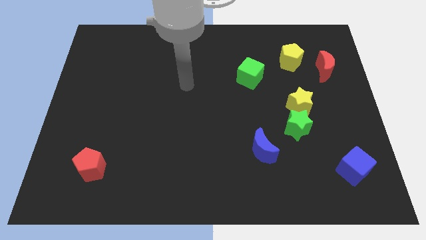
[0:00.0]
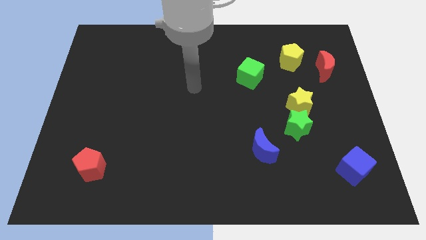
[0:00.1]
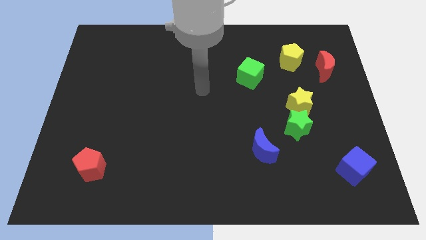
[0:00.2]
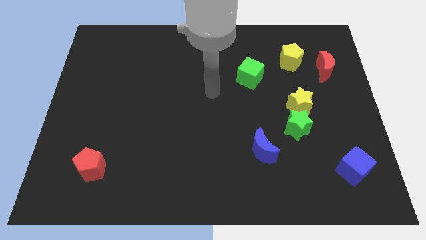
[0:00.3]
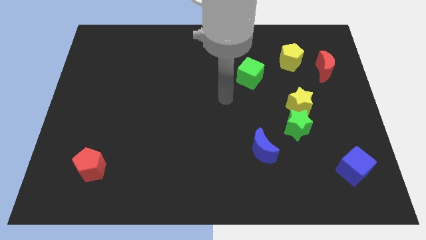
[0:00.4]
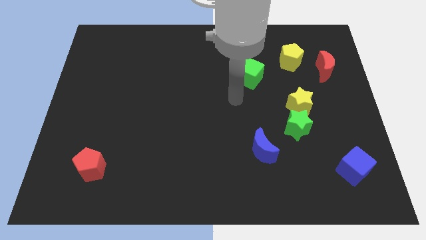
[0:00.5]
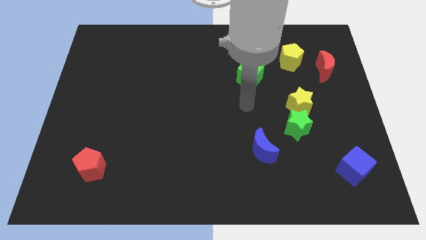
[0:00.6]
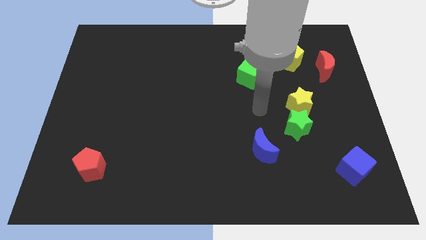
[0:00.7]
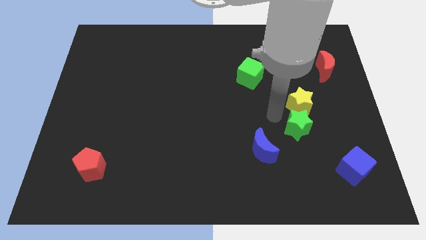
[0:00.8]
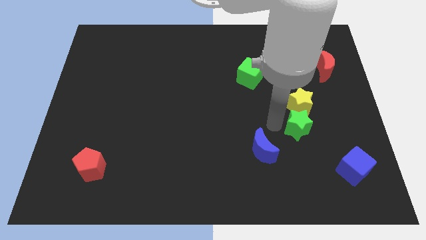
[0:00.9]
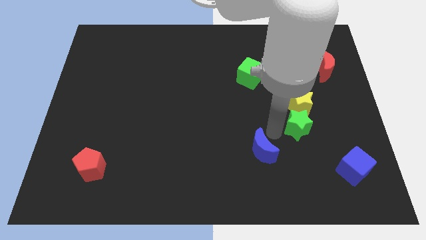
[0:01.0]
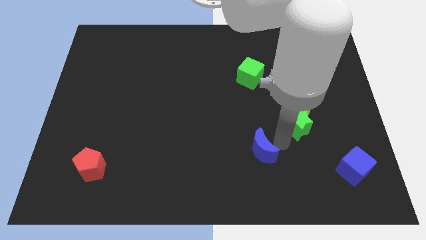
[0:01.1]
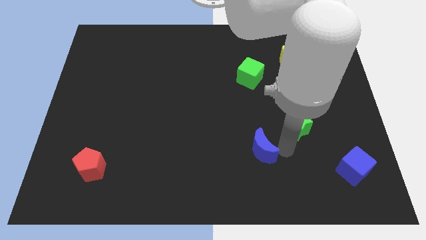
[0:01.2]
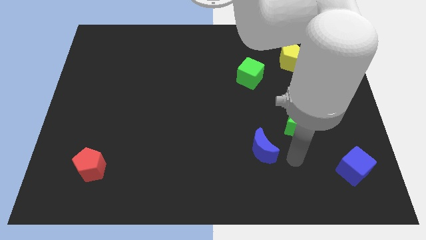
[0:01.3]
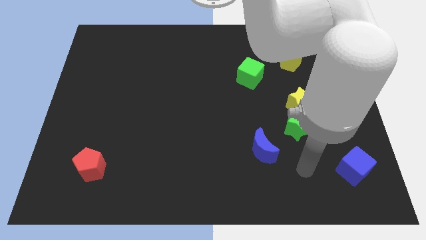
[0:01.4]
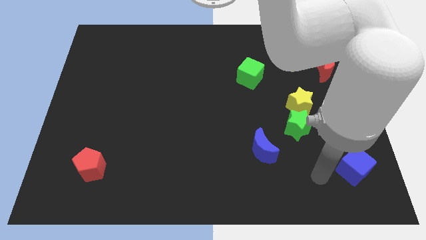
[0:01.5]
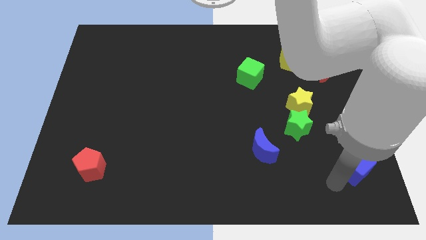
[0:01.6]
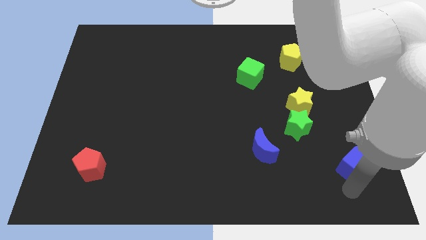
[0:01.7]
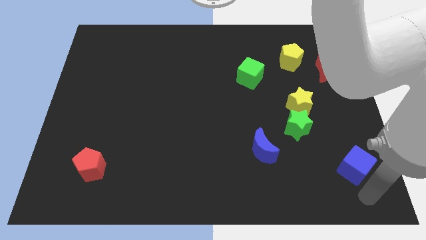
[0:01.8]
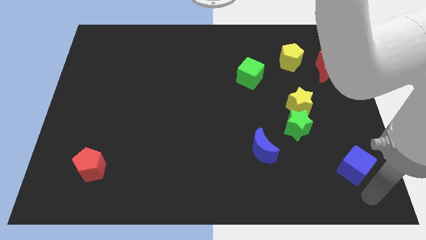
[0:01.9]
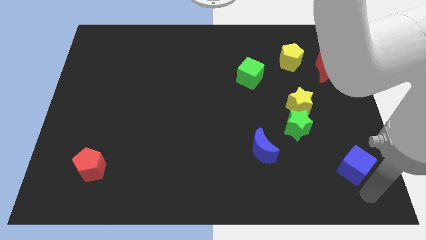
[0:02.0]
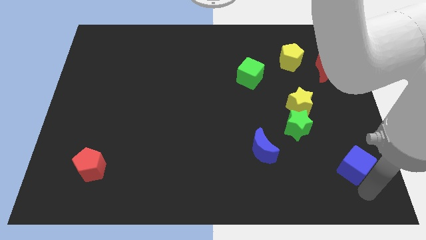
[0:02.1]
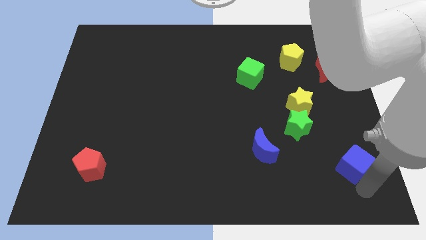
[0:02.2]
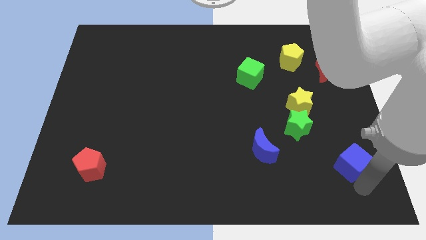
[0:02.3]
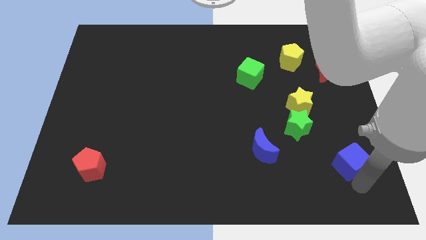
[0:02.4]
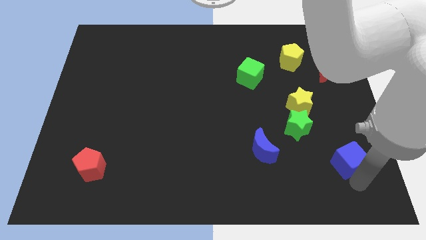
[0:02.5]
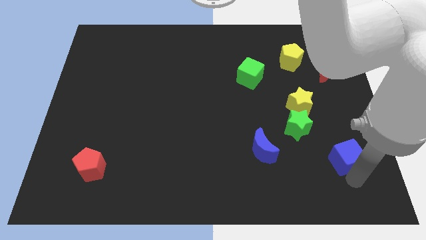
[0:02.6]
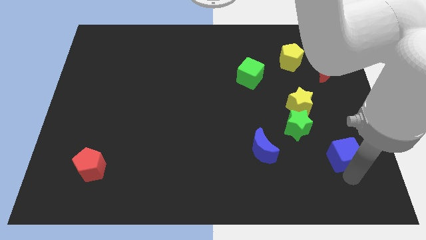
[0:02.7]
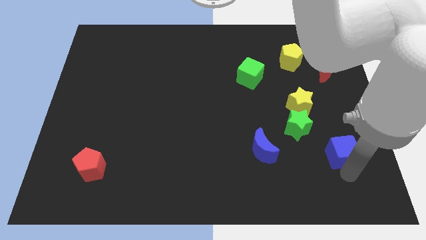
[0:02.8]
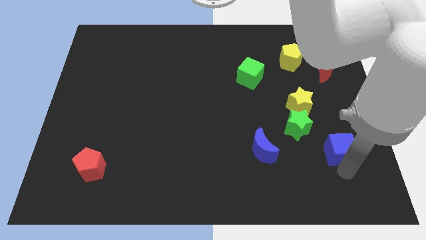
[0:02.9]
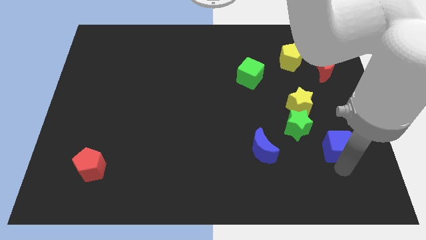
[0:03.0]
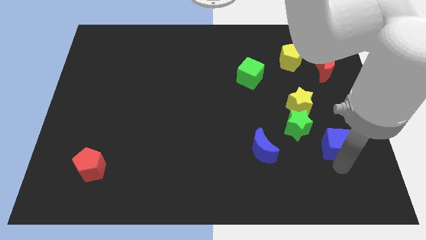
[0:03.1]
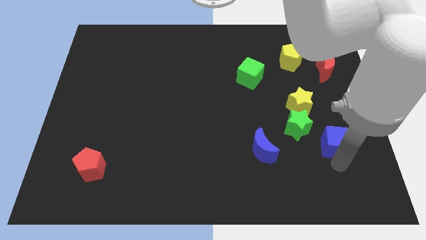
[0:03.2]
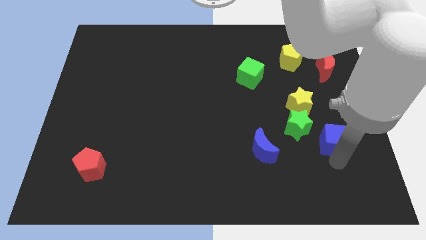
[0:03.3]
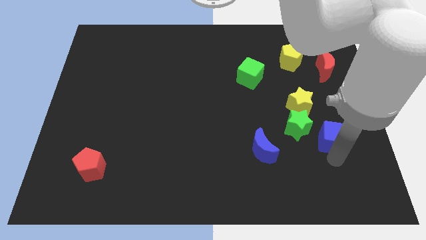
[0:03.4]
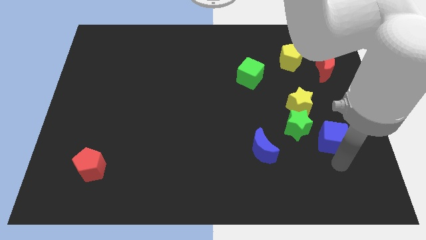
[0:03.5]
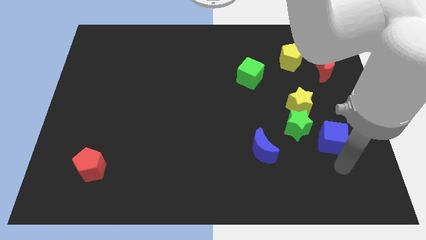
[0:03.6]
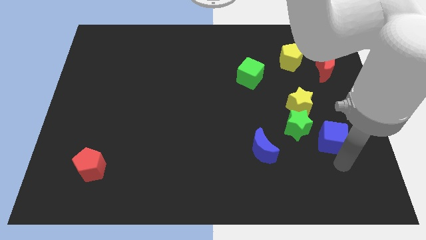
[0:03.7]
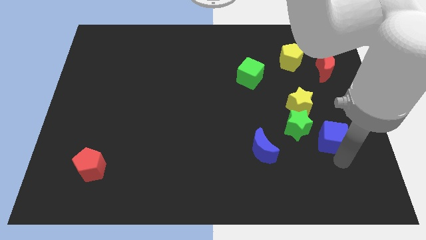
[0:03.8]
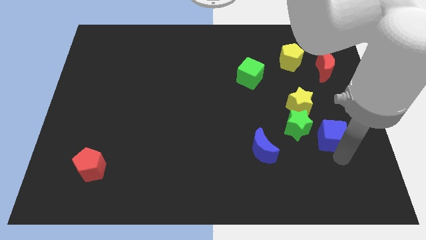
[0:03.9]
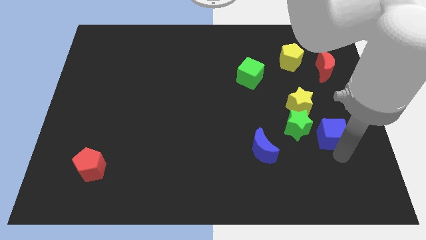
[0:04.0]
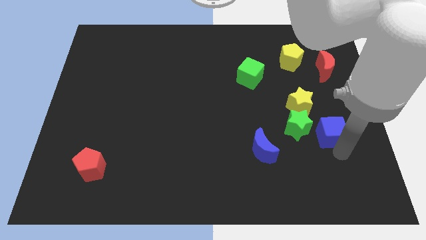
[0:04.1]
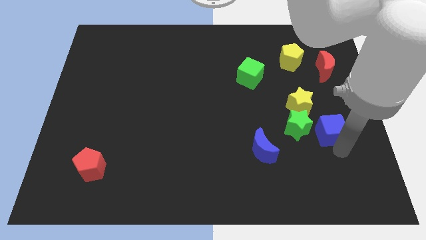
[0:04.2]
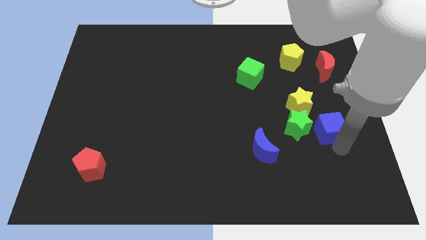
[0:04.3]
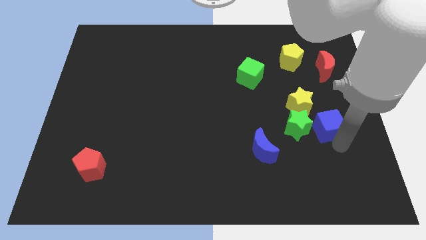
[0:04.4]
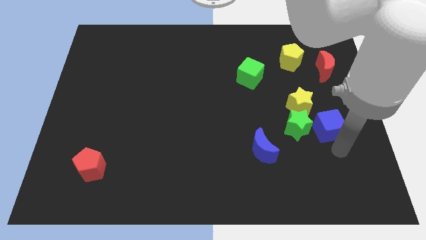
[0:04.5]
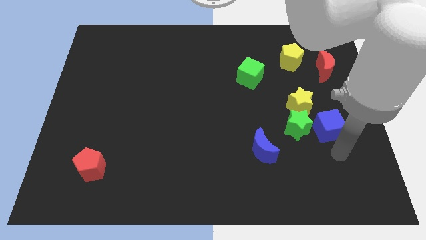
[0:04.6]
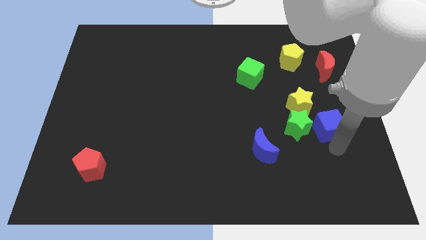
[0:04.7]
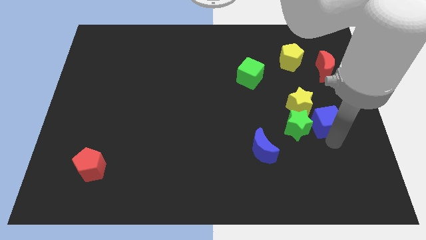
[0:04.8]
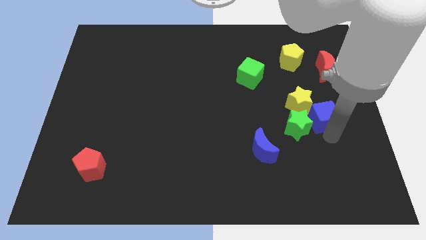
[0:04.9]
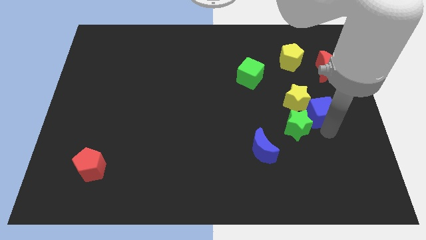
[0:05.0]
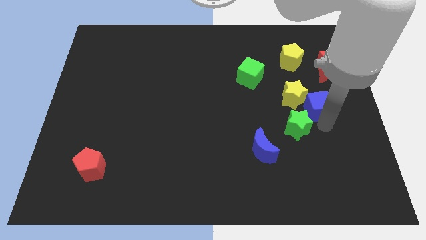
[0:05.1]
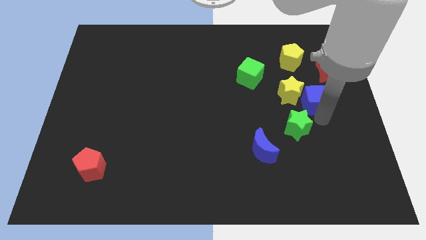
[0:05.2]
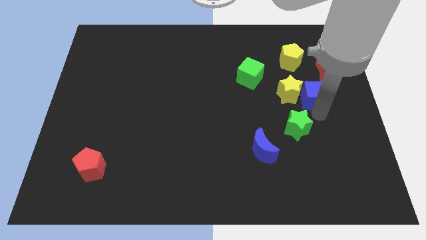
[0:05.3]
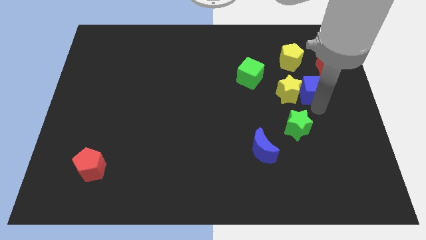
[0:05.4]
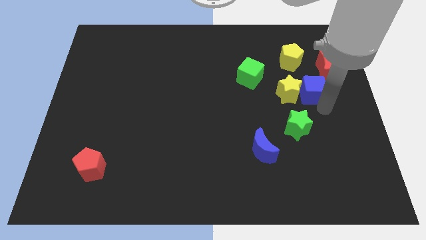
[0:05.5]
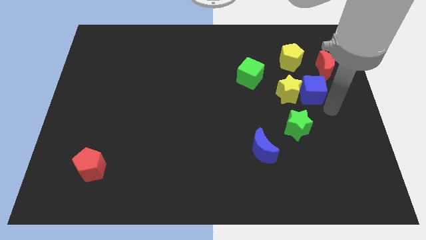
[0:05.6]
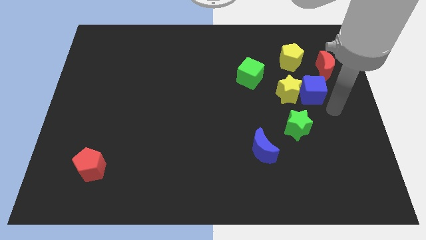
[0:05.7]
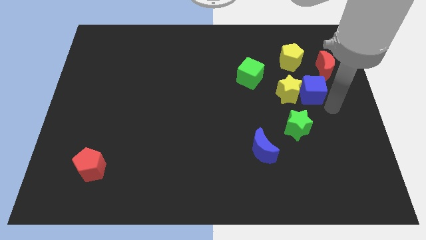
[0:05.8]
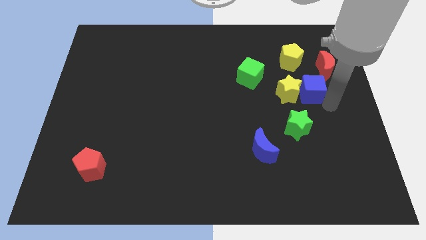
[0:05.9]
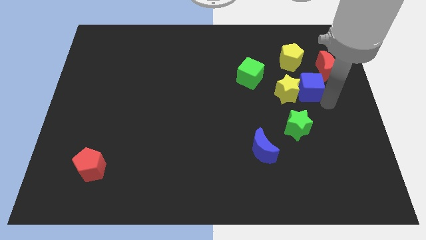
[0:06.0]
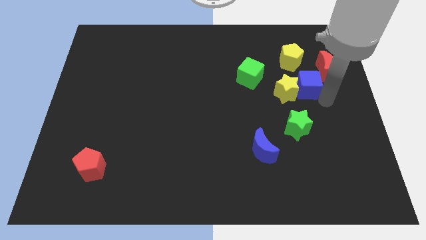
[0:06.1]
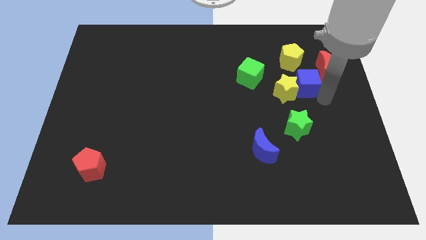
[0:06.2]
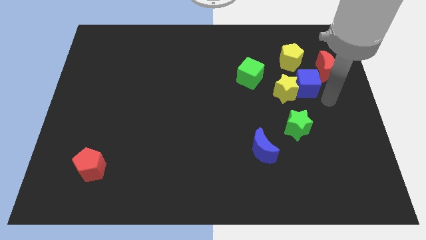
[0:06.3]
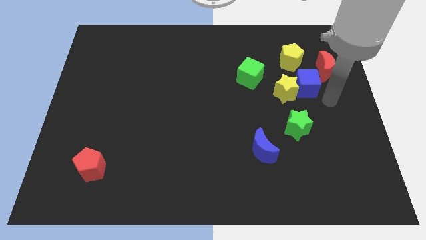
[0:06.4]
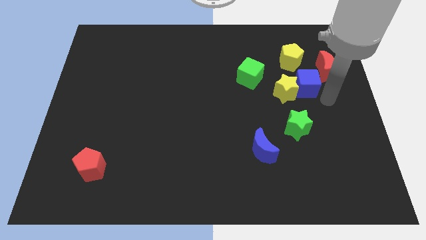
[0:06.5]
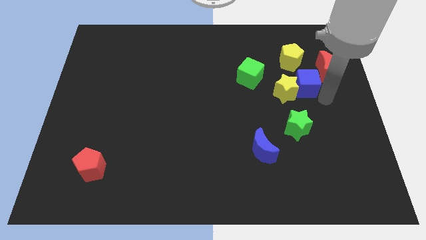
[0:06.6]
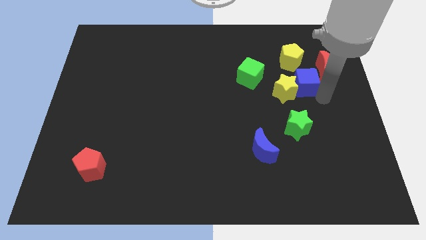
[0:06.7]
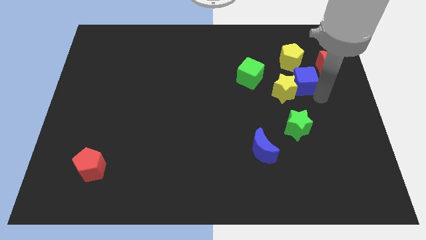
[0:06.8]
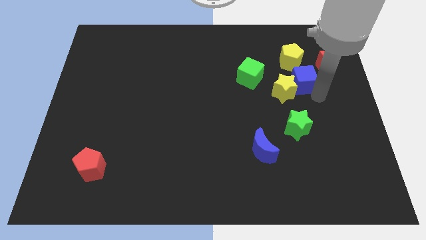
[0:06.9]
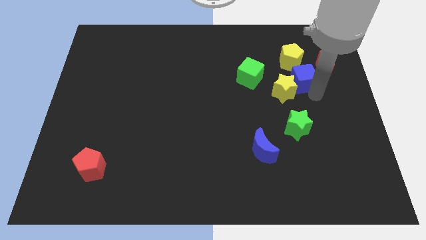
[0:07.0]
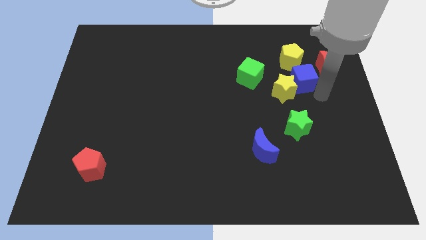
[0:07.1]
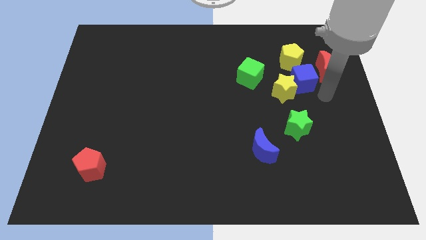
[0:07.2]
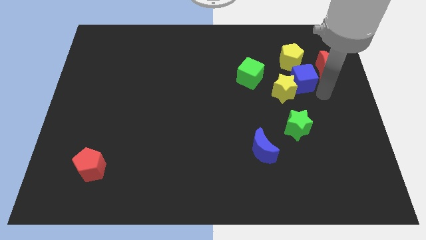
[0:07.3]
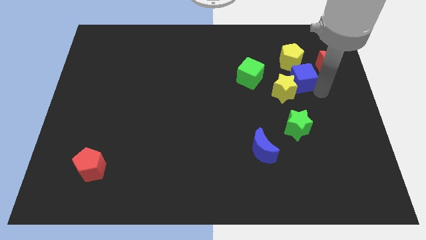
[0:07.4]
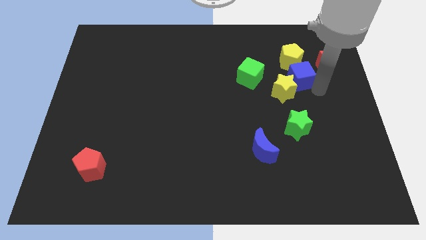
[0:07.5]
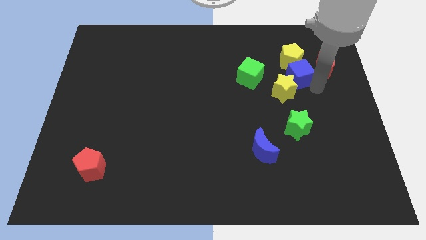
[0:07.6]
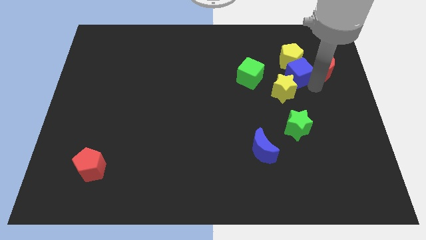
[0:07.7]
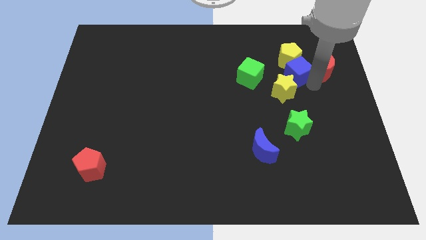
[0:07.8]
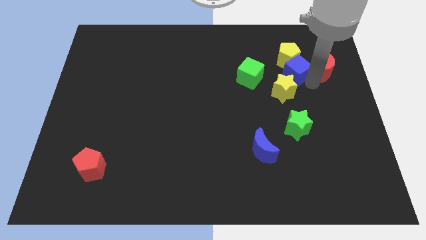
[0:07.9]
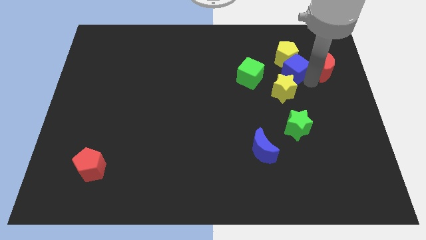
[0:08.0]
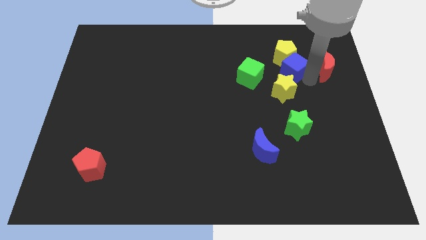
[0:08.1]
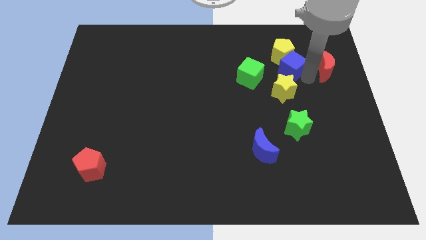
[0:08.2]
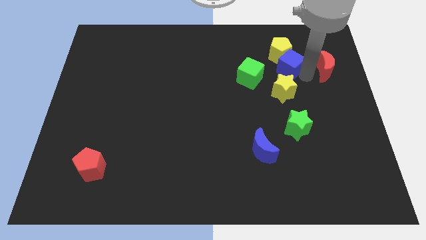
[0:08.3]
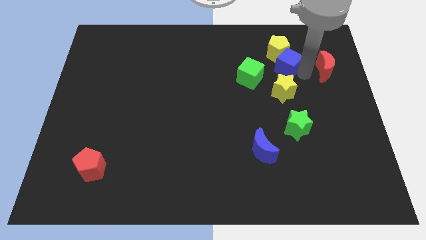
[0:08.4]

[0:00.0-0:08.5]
put the blue cube diagonally up and to the right of the green cube
